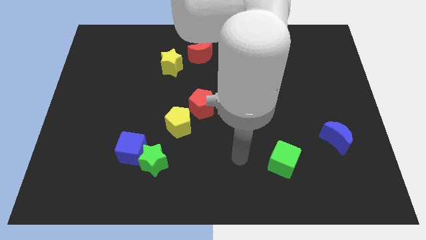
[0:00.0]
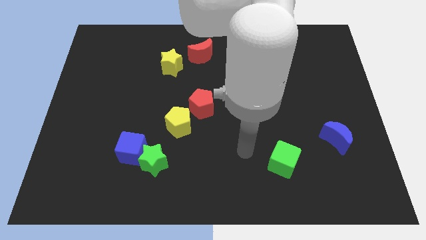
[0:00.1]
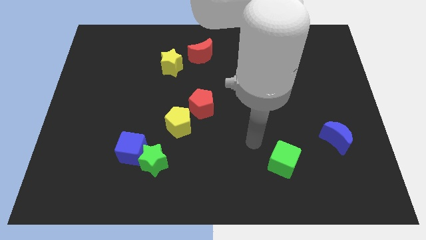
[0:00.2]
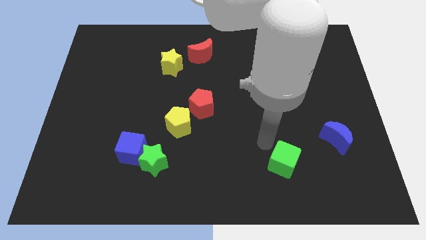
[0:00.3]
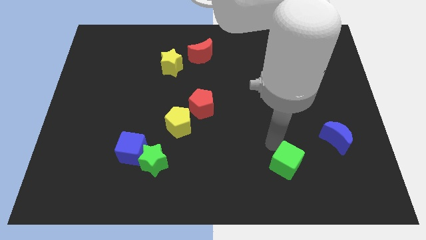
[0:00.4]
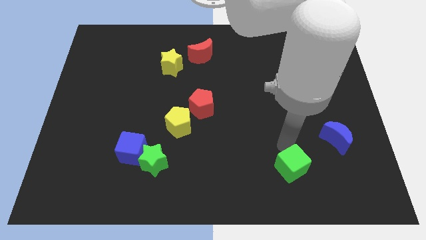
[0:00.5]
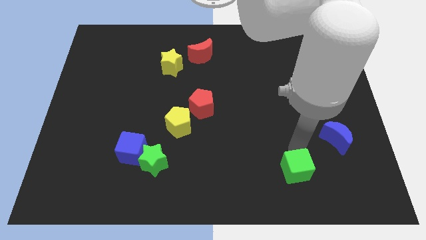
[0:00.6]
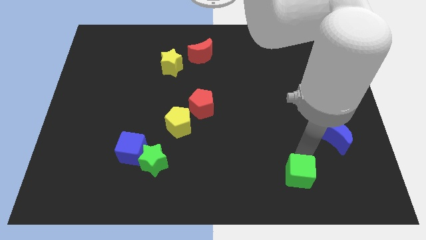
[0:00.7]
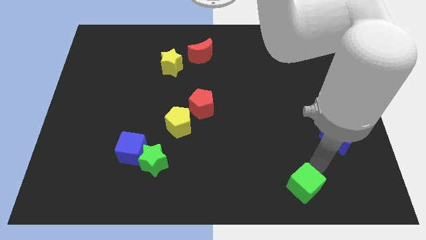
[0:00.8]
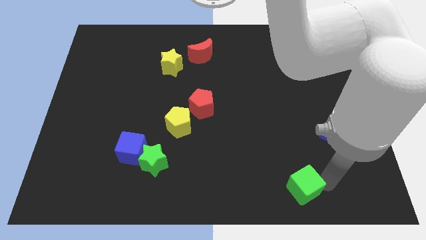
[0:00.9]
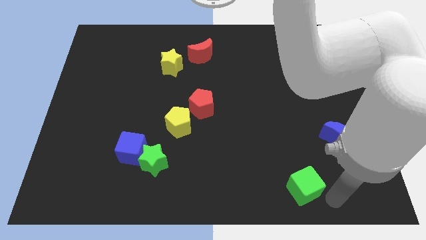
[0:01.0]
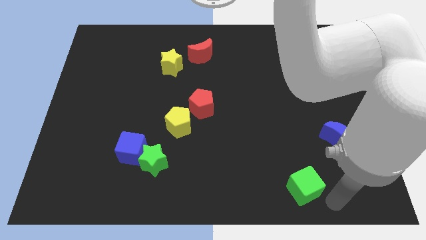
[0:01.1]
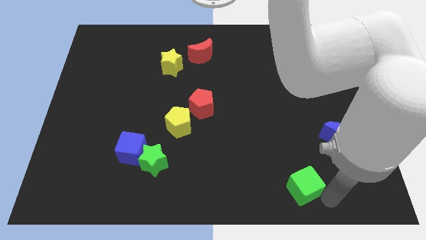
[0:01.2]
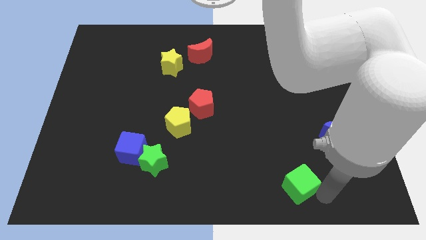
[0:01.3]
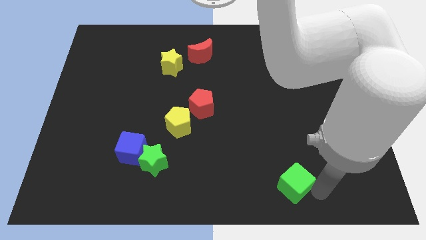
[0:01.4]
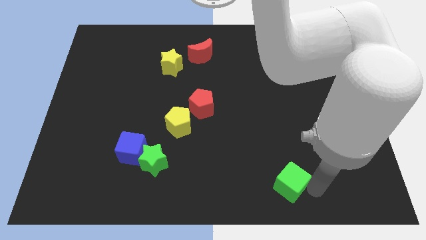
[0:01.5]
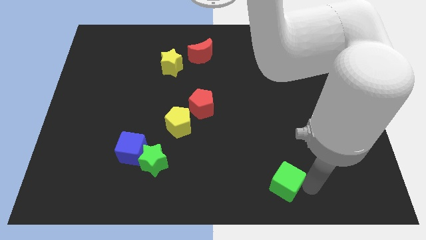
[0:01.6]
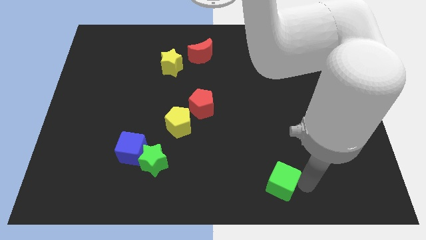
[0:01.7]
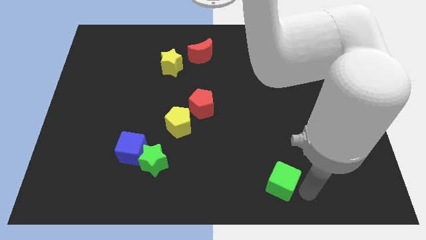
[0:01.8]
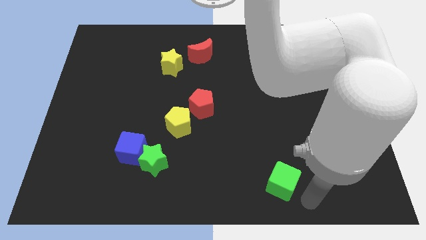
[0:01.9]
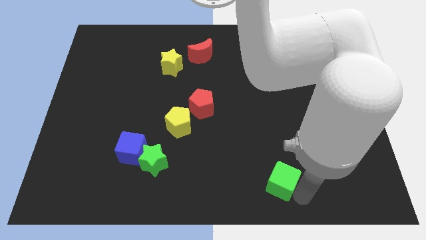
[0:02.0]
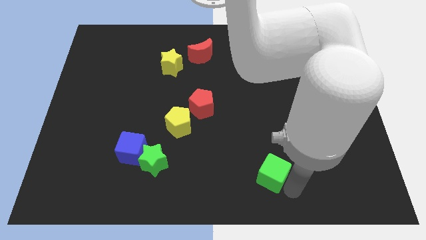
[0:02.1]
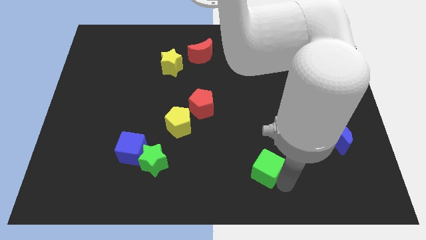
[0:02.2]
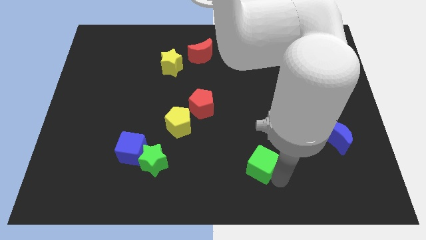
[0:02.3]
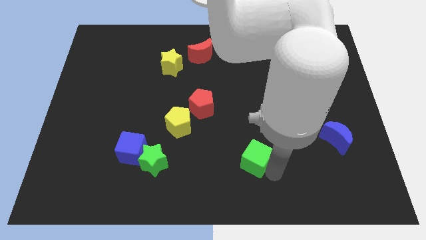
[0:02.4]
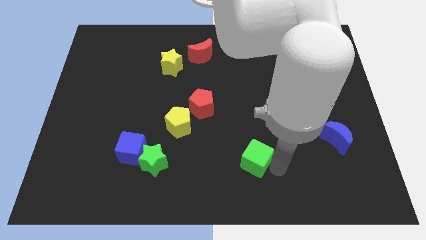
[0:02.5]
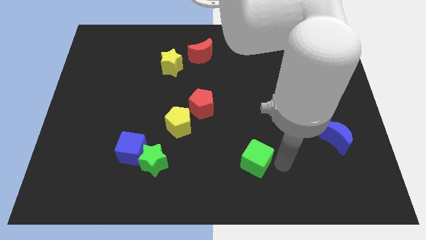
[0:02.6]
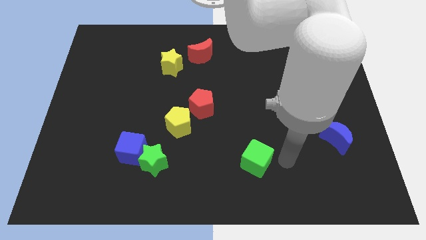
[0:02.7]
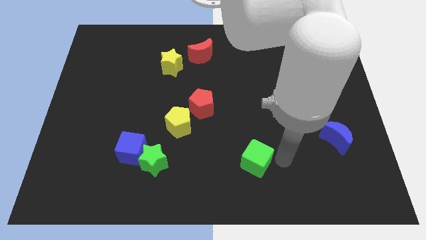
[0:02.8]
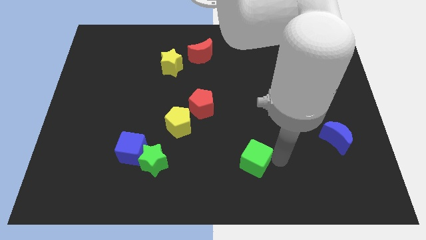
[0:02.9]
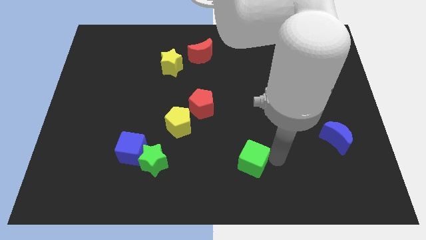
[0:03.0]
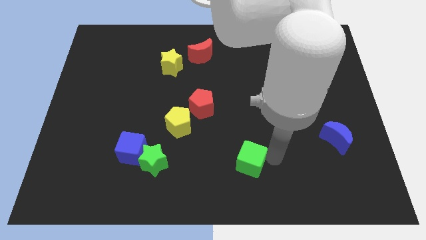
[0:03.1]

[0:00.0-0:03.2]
push the green cube a bit left

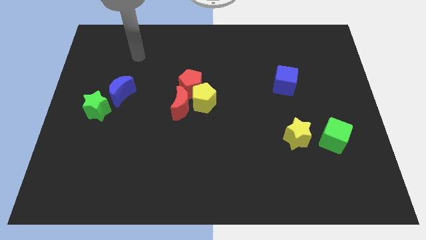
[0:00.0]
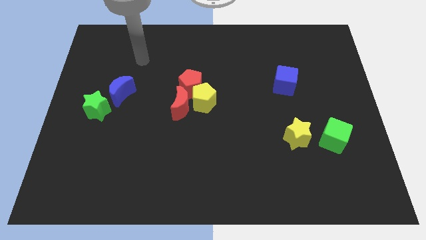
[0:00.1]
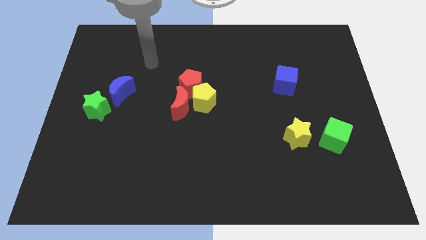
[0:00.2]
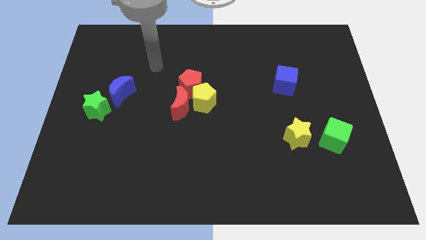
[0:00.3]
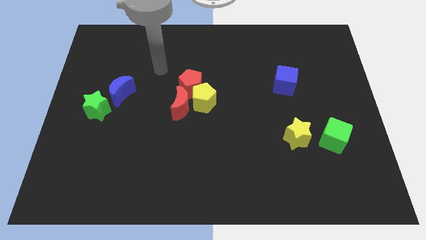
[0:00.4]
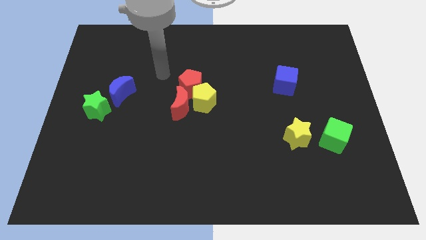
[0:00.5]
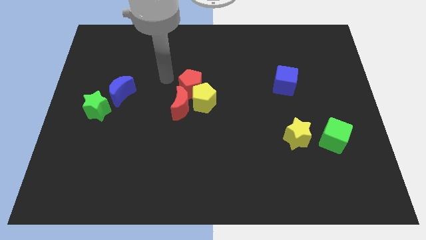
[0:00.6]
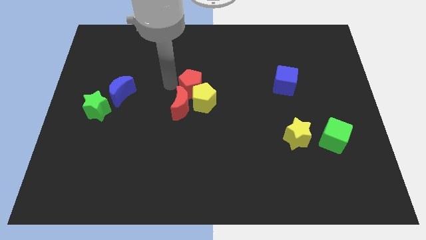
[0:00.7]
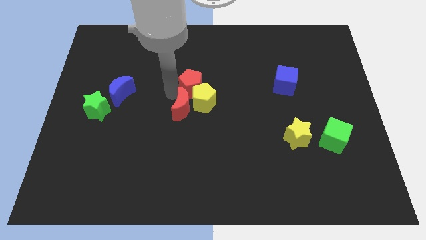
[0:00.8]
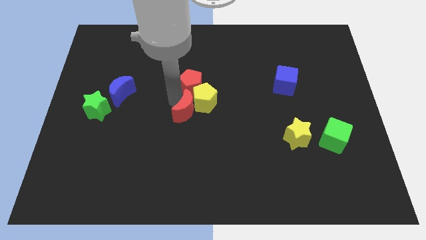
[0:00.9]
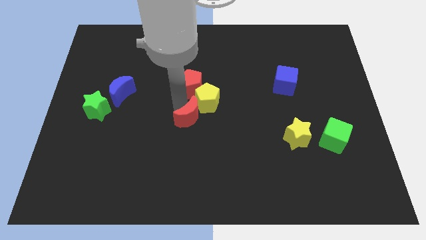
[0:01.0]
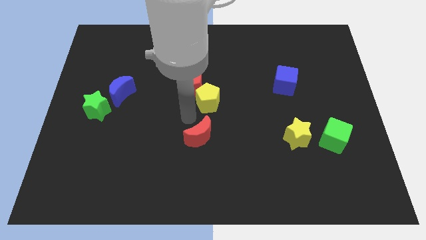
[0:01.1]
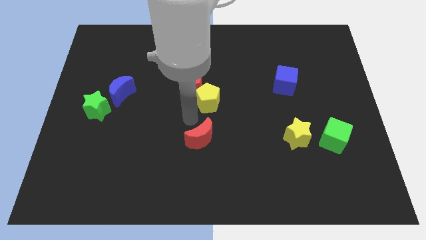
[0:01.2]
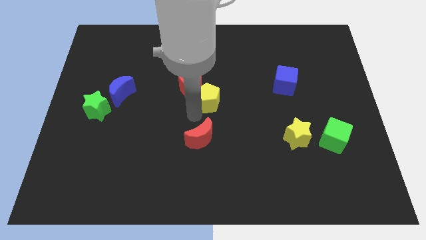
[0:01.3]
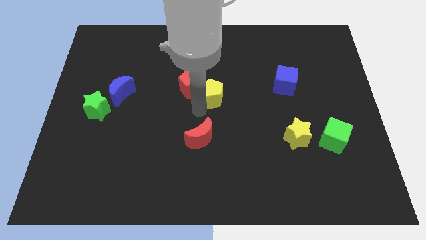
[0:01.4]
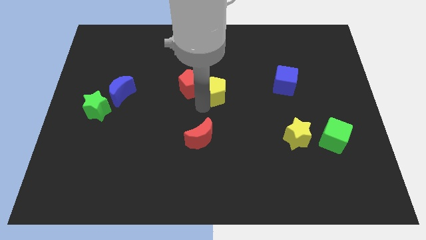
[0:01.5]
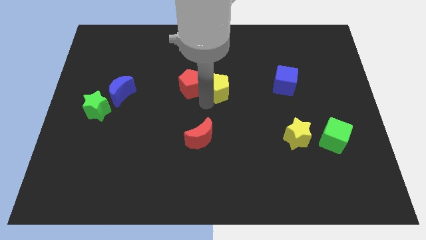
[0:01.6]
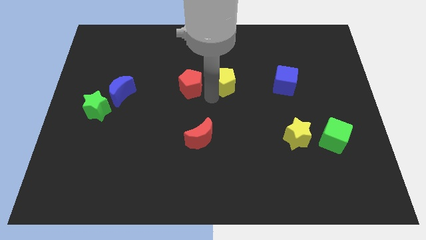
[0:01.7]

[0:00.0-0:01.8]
slide the yellow pentagon somewhat up and to the right diagonally

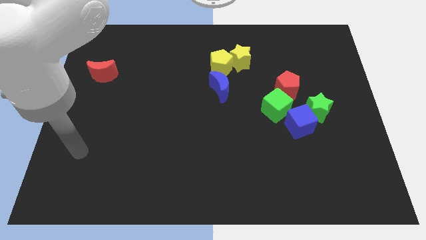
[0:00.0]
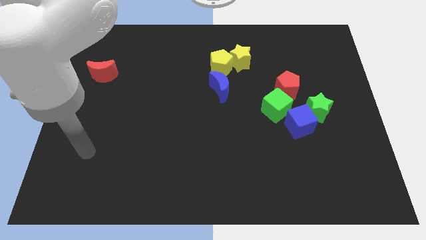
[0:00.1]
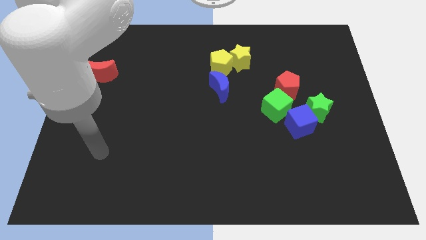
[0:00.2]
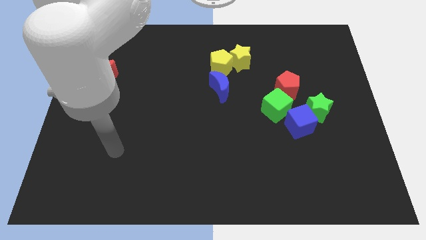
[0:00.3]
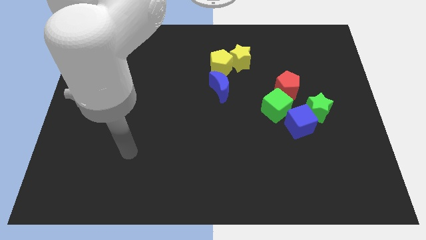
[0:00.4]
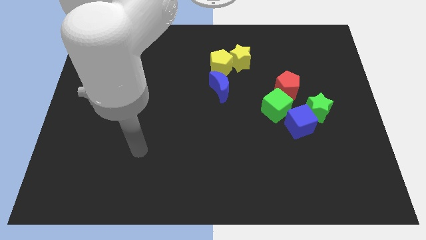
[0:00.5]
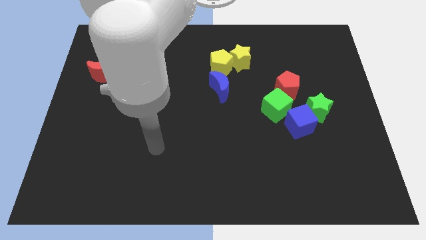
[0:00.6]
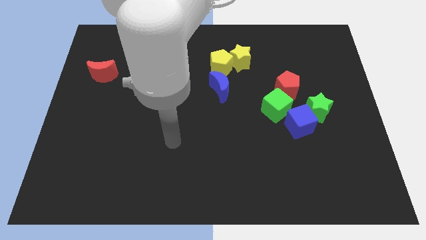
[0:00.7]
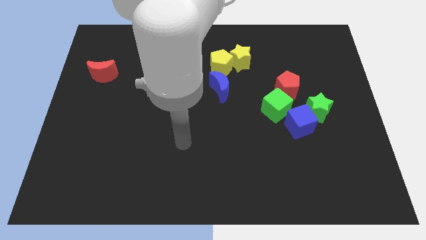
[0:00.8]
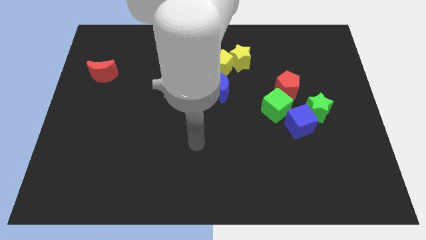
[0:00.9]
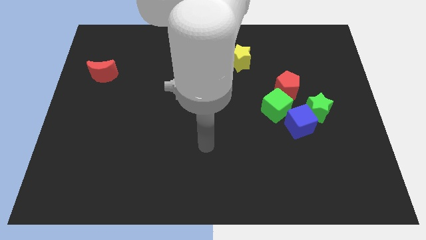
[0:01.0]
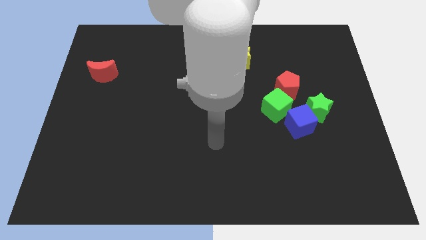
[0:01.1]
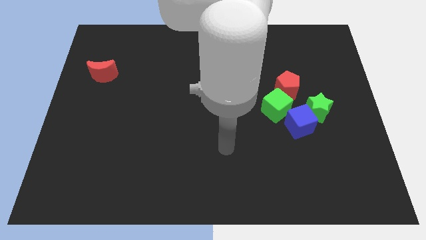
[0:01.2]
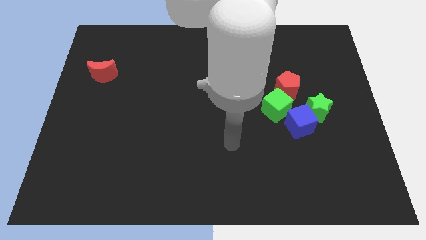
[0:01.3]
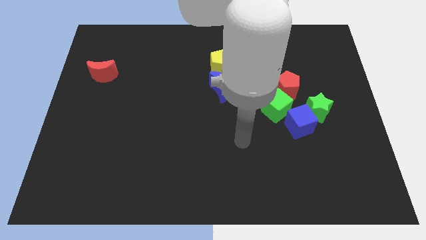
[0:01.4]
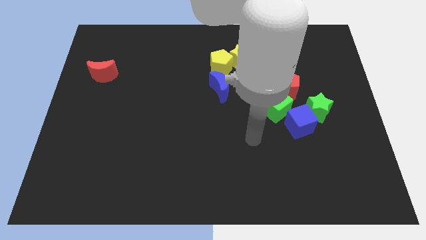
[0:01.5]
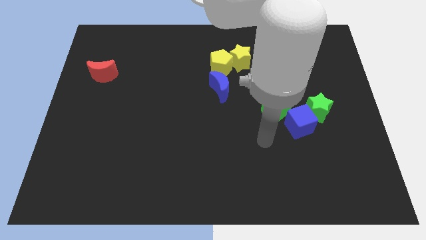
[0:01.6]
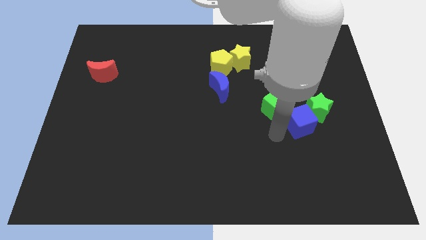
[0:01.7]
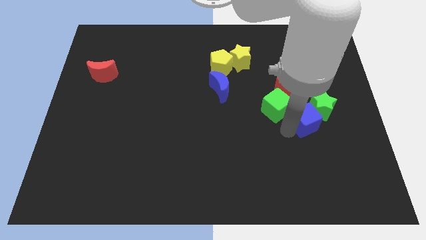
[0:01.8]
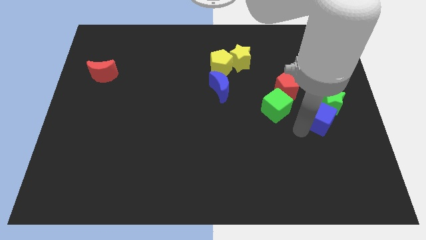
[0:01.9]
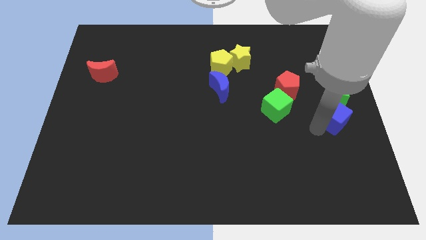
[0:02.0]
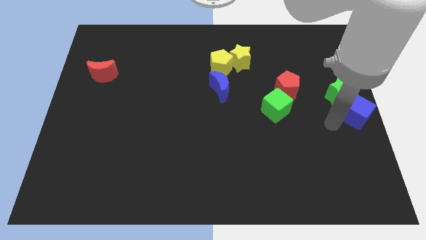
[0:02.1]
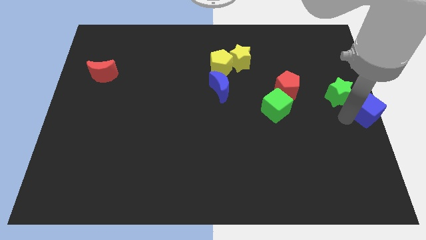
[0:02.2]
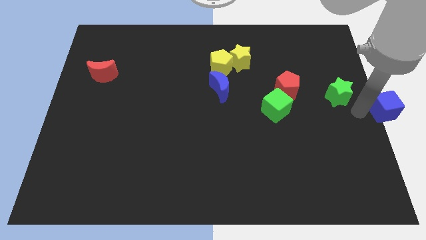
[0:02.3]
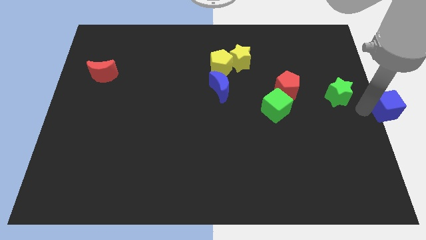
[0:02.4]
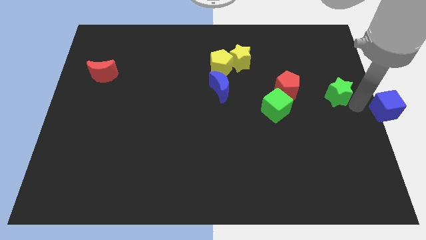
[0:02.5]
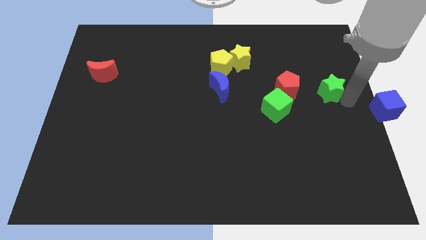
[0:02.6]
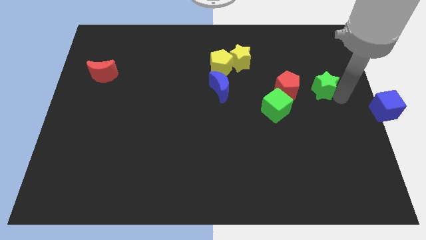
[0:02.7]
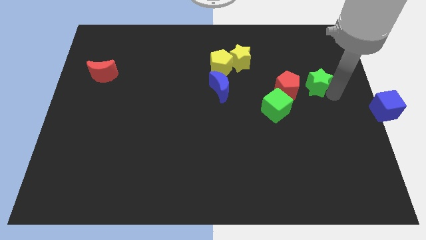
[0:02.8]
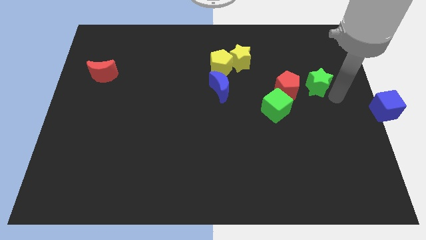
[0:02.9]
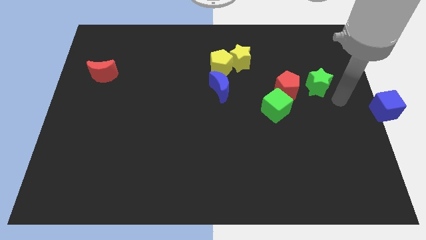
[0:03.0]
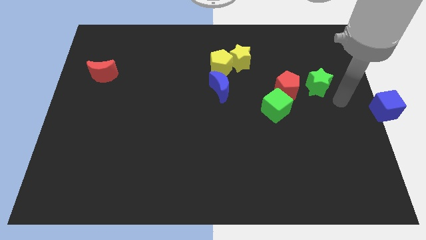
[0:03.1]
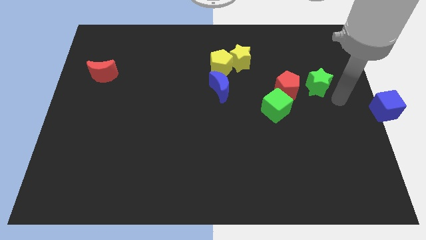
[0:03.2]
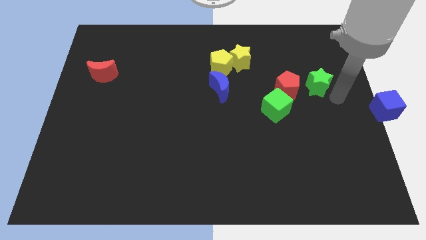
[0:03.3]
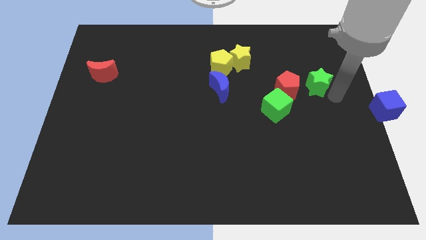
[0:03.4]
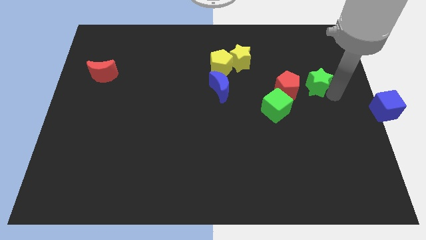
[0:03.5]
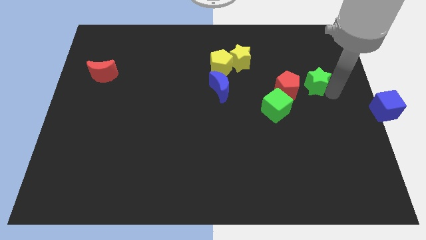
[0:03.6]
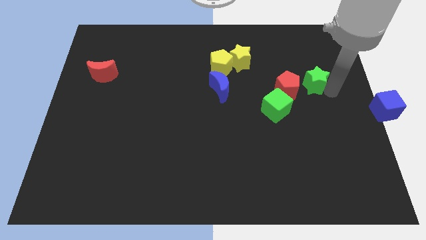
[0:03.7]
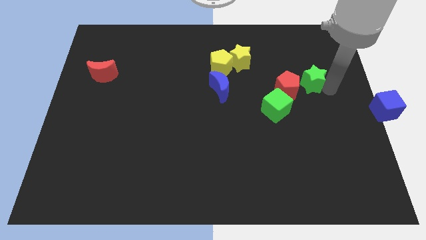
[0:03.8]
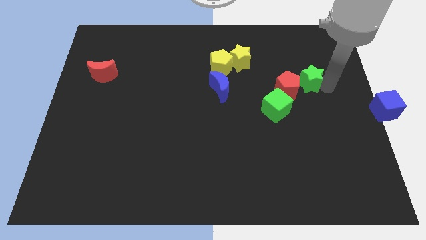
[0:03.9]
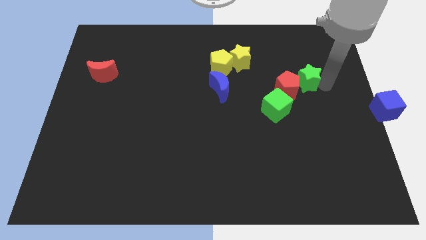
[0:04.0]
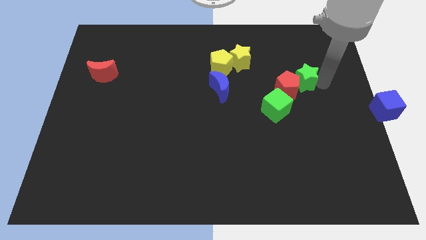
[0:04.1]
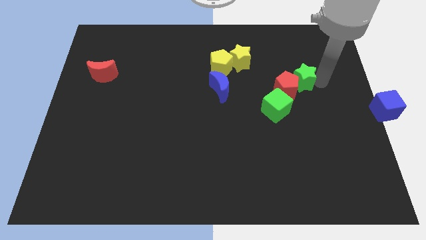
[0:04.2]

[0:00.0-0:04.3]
slide the green star a little bit diagonally up and left
